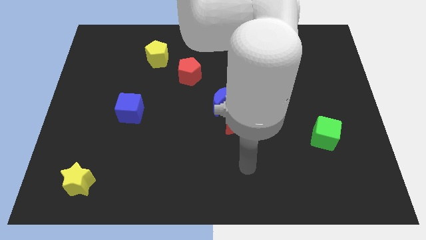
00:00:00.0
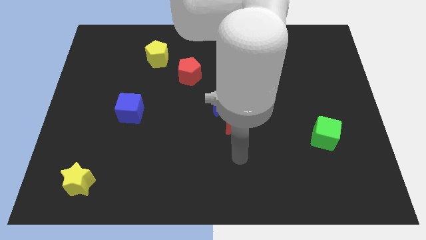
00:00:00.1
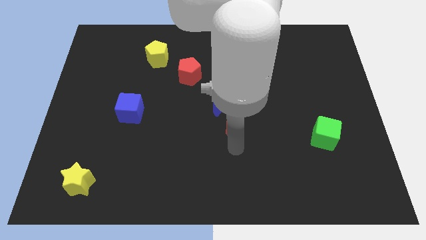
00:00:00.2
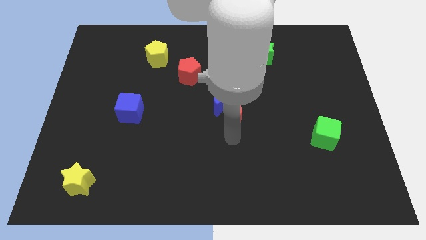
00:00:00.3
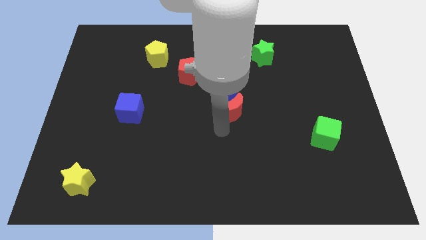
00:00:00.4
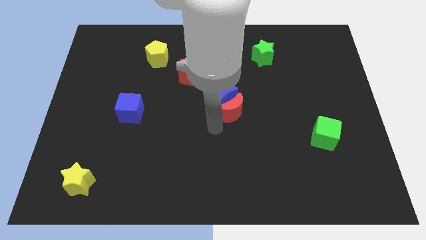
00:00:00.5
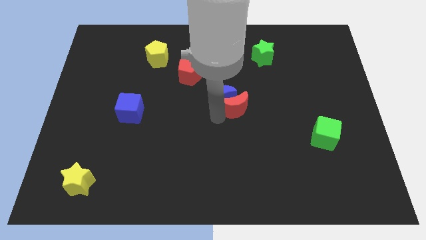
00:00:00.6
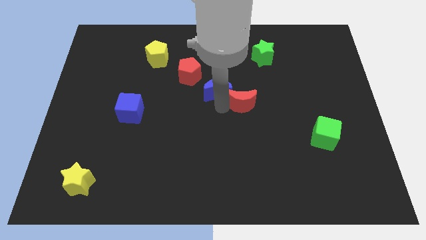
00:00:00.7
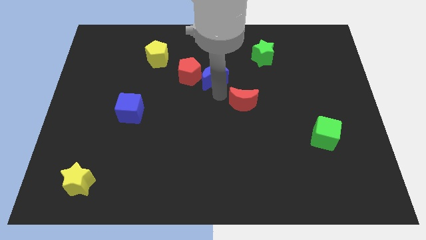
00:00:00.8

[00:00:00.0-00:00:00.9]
pull the red moon apart from the blue moon

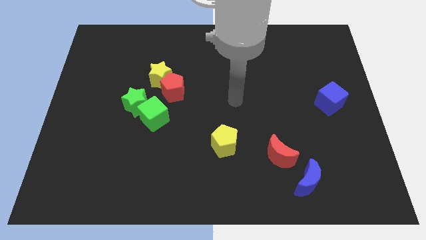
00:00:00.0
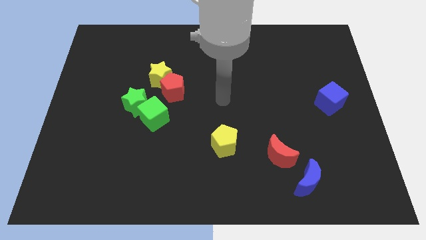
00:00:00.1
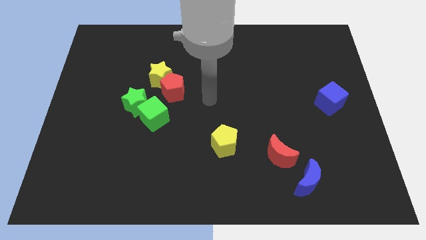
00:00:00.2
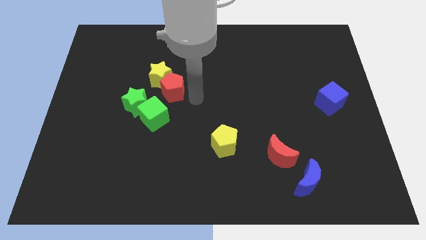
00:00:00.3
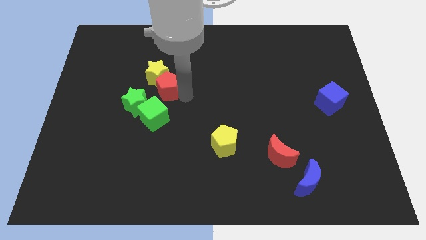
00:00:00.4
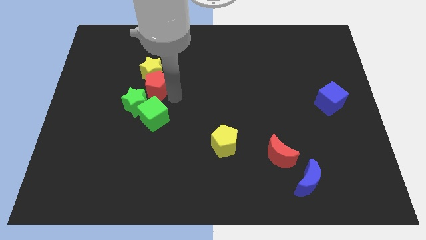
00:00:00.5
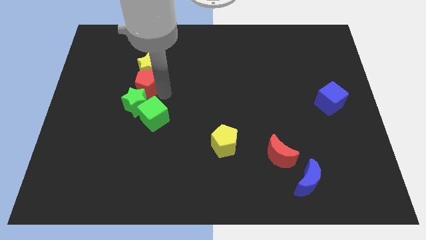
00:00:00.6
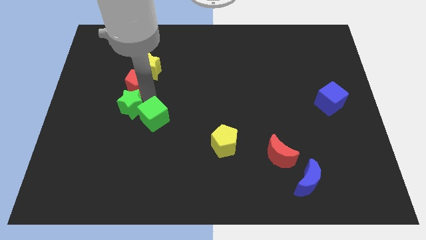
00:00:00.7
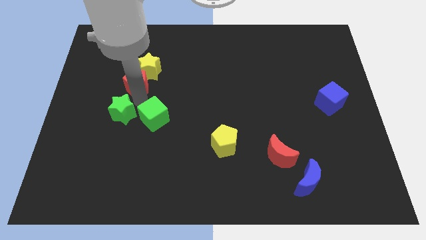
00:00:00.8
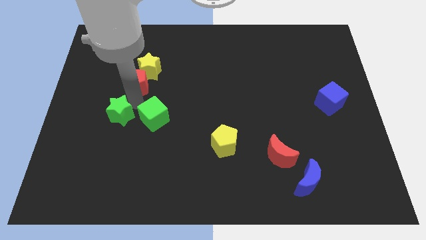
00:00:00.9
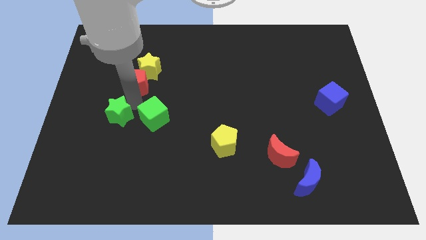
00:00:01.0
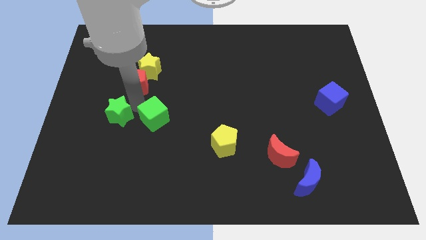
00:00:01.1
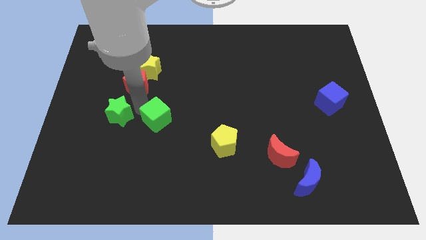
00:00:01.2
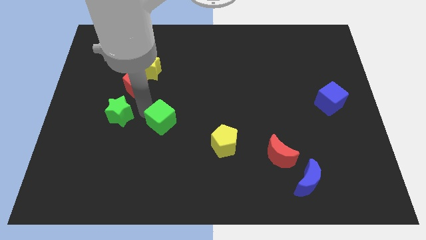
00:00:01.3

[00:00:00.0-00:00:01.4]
pull the green cube apart from the green star and red pentagon

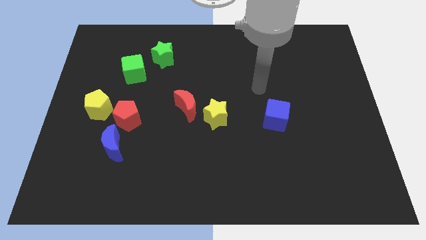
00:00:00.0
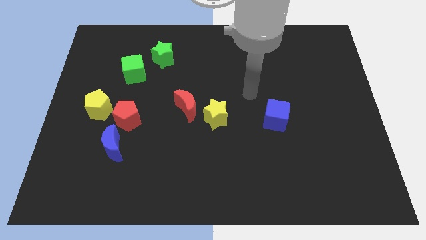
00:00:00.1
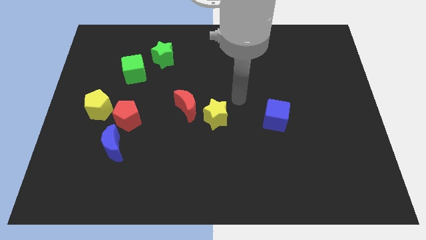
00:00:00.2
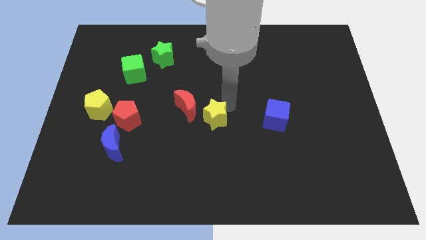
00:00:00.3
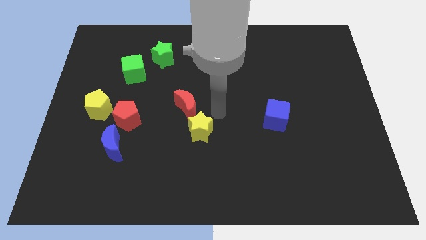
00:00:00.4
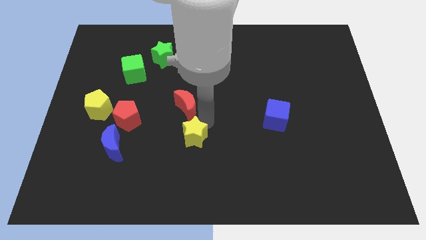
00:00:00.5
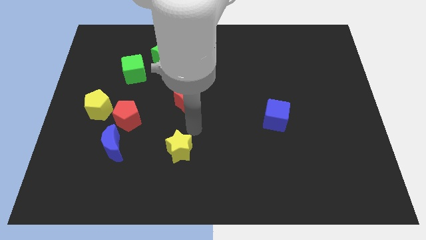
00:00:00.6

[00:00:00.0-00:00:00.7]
pull the red moon apart from the yellow star

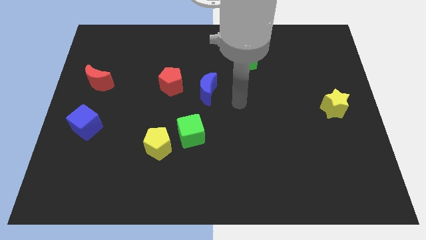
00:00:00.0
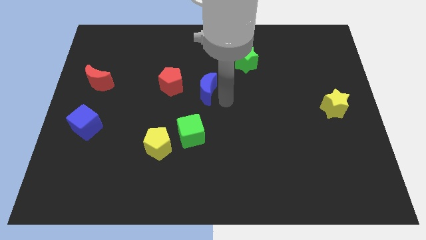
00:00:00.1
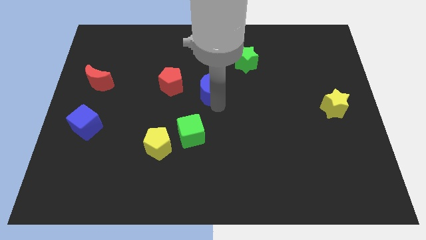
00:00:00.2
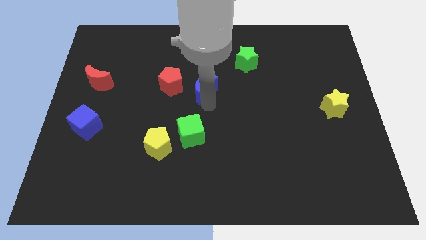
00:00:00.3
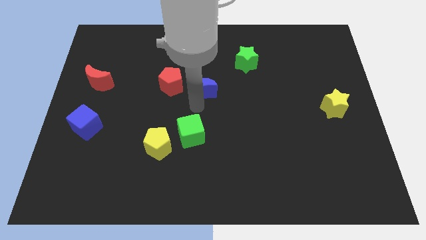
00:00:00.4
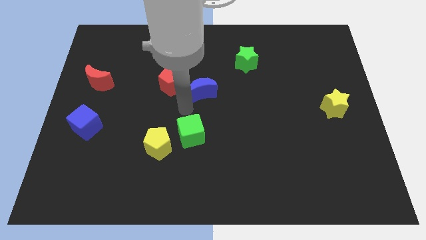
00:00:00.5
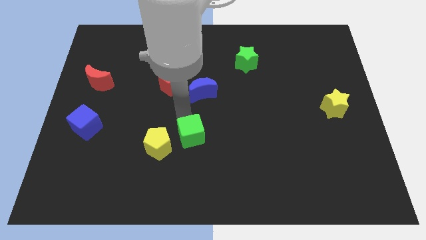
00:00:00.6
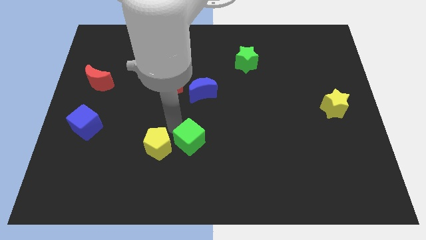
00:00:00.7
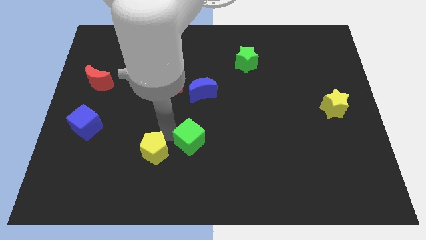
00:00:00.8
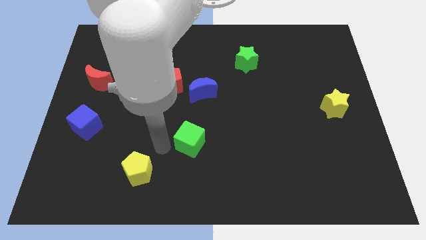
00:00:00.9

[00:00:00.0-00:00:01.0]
move the green cube away from the yellow pentagon

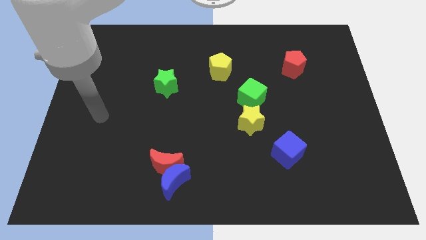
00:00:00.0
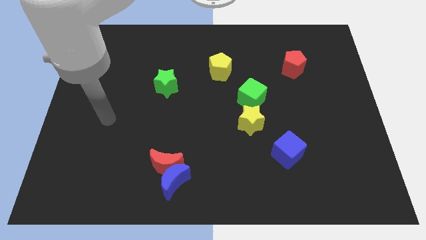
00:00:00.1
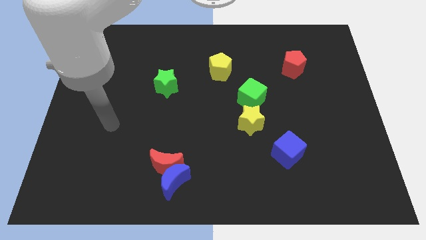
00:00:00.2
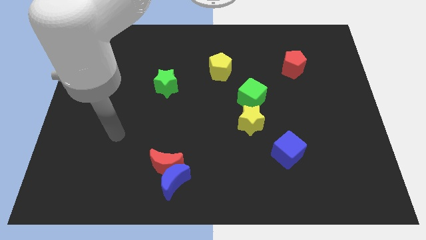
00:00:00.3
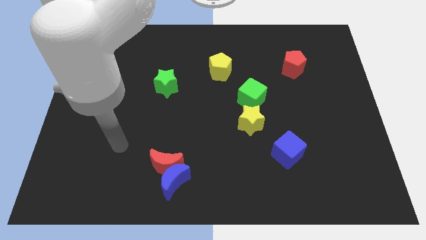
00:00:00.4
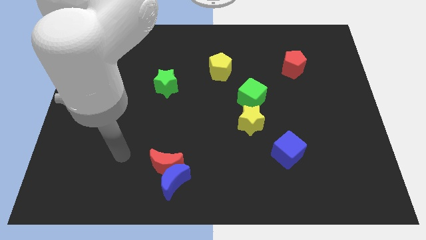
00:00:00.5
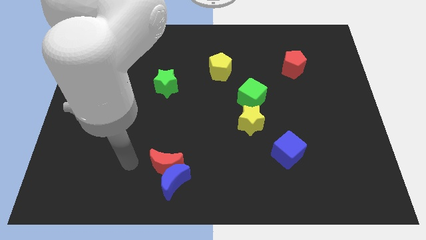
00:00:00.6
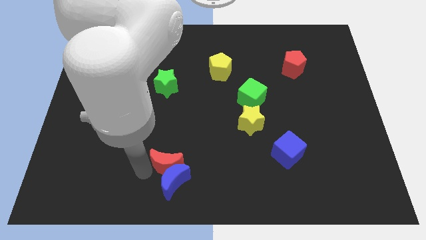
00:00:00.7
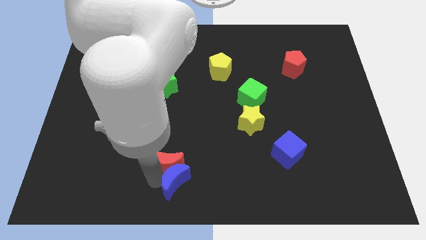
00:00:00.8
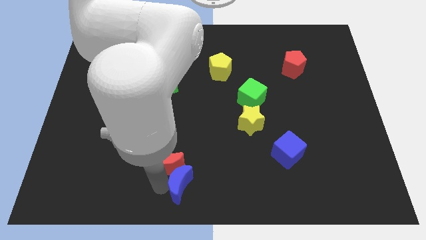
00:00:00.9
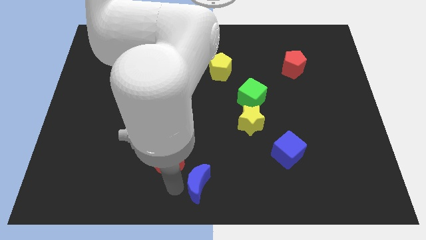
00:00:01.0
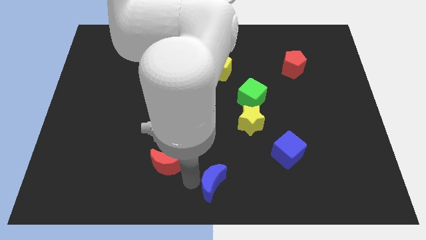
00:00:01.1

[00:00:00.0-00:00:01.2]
move the red moon away from the blue moon

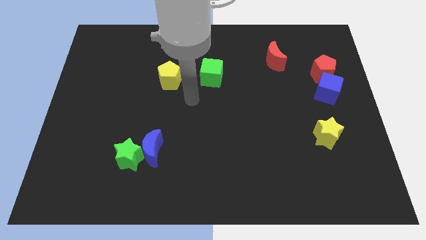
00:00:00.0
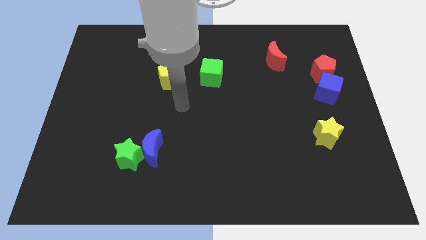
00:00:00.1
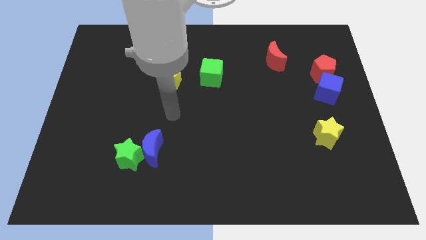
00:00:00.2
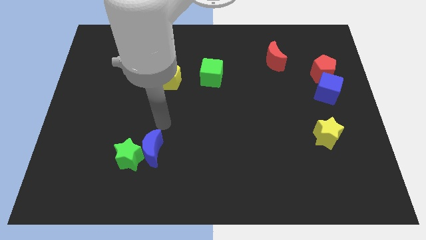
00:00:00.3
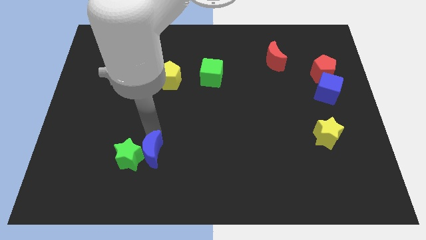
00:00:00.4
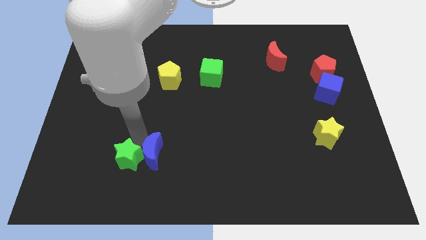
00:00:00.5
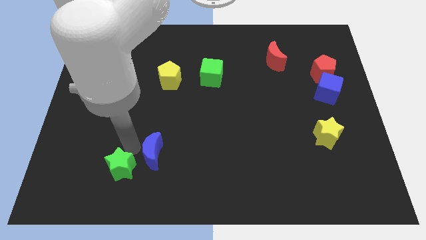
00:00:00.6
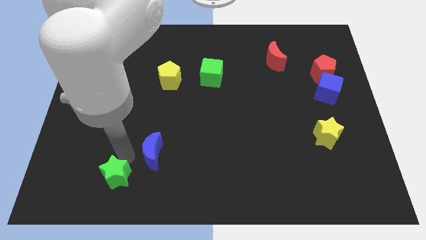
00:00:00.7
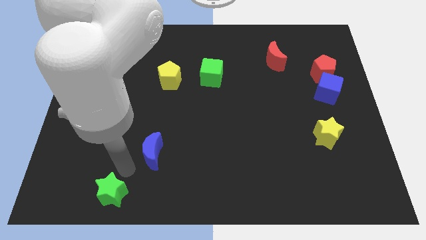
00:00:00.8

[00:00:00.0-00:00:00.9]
move the blue moon away from the green star

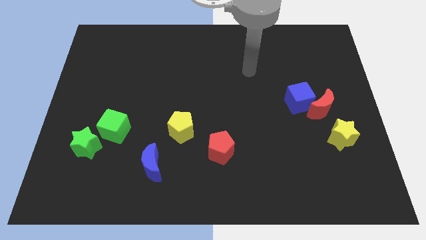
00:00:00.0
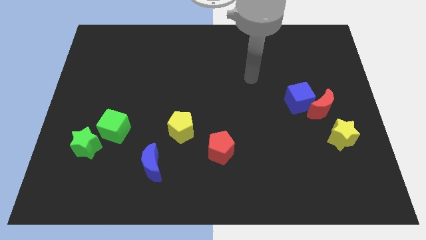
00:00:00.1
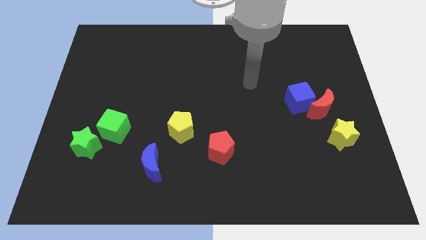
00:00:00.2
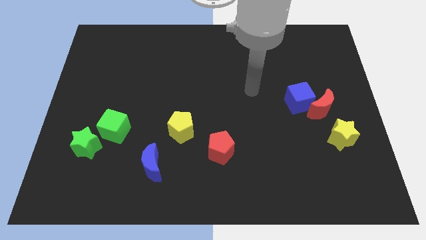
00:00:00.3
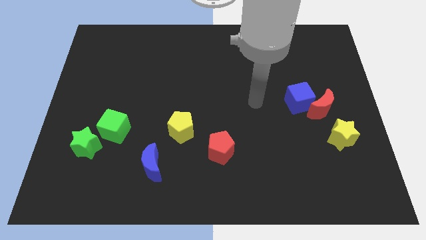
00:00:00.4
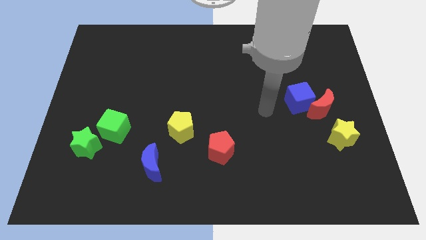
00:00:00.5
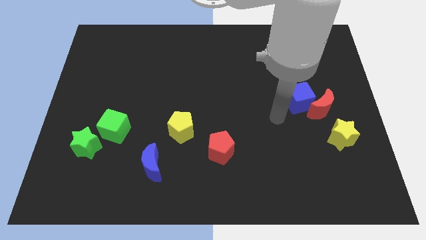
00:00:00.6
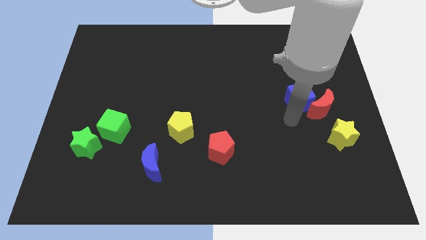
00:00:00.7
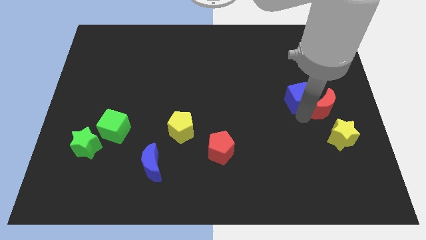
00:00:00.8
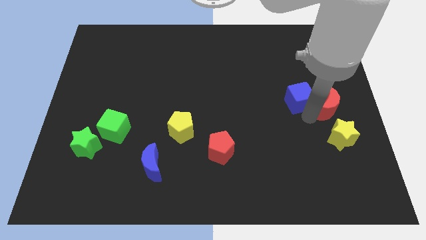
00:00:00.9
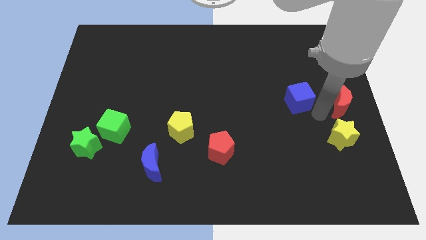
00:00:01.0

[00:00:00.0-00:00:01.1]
move the blue cube away from the red moon

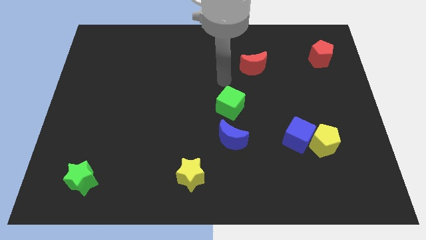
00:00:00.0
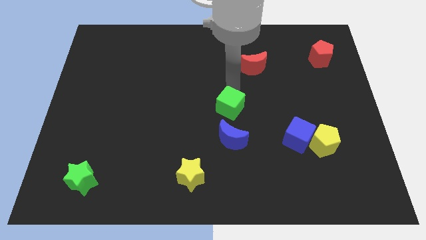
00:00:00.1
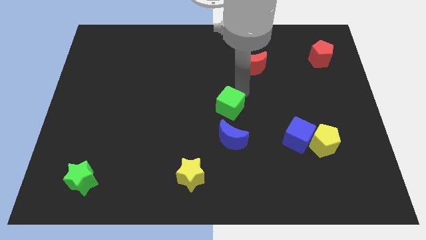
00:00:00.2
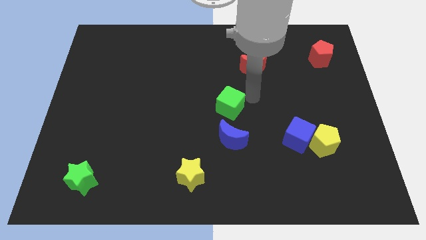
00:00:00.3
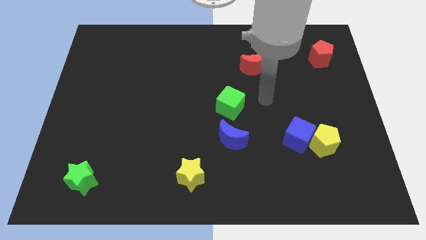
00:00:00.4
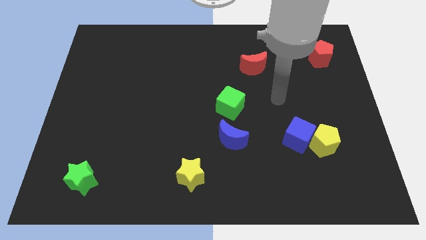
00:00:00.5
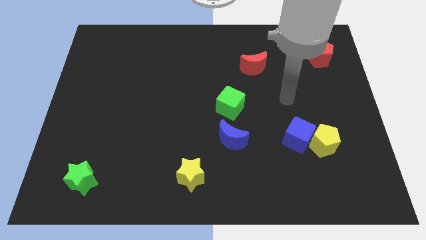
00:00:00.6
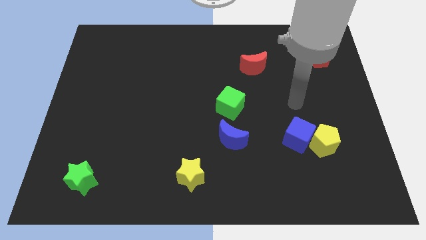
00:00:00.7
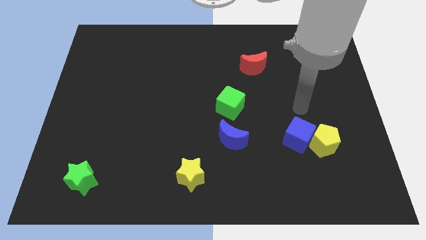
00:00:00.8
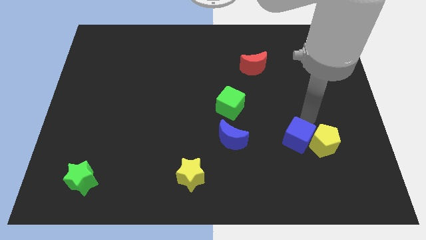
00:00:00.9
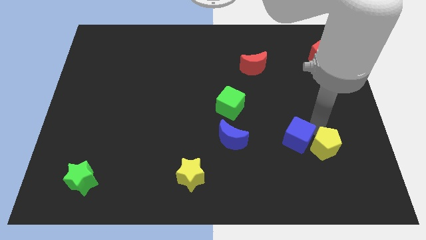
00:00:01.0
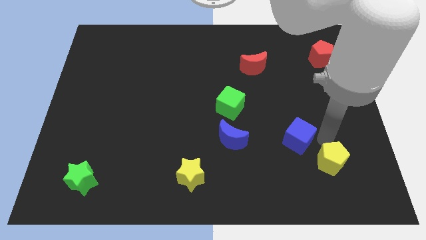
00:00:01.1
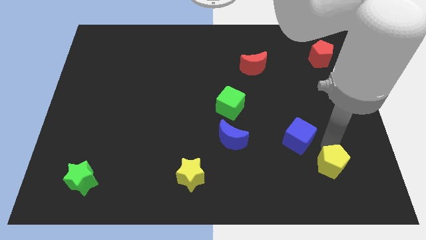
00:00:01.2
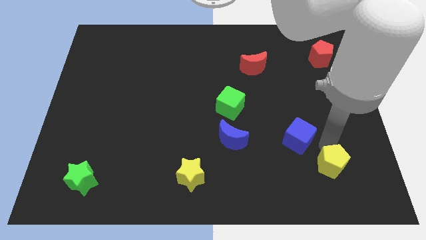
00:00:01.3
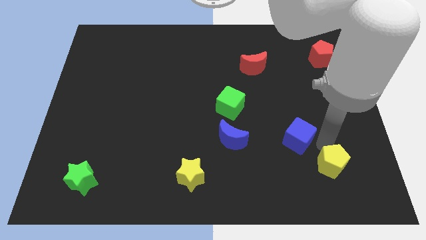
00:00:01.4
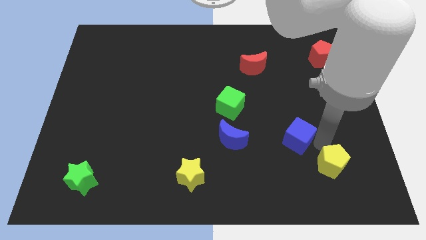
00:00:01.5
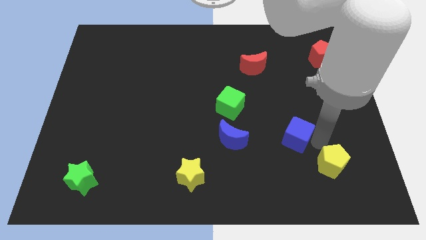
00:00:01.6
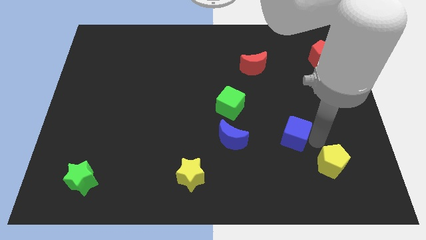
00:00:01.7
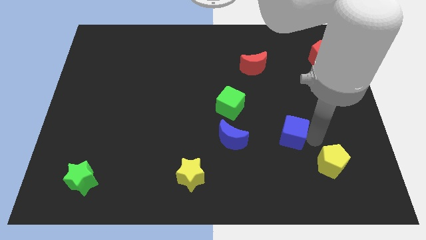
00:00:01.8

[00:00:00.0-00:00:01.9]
separate the blue cube from the yellow pentagon

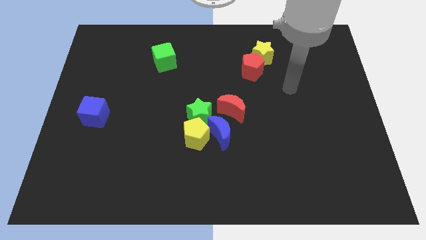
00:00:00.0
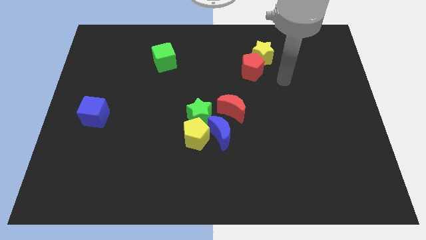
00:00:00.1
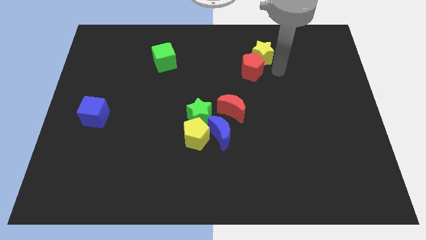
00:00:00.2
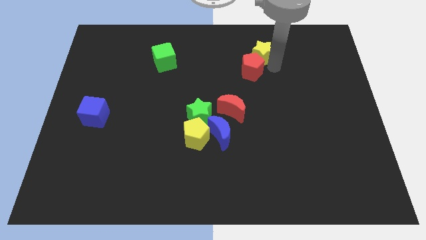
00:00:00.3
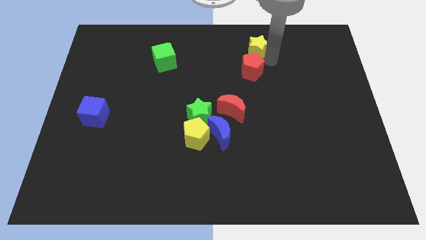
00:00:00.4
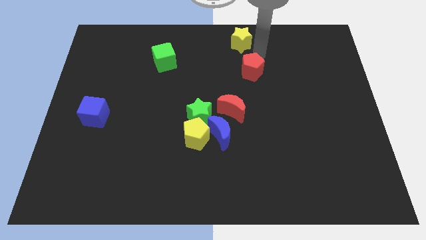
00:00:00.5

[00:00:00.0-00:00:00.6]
move the red pentagon away from the yellow star
